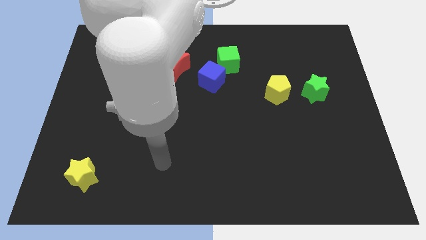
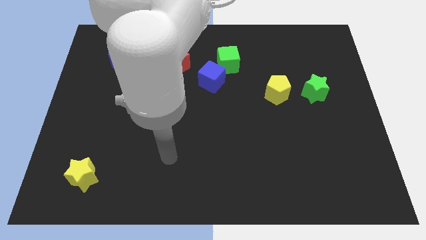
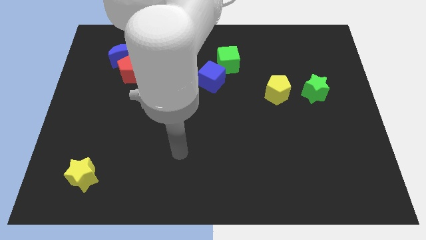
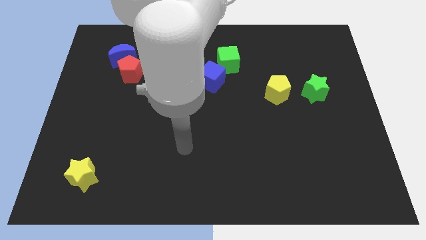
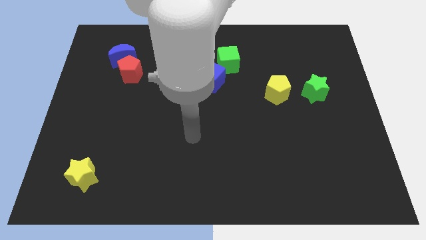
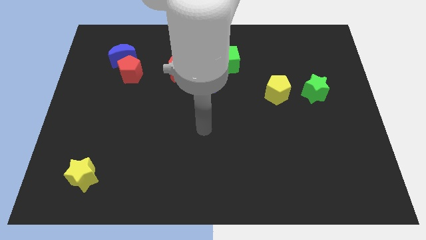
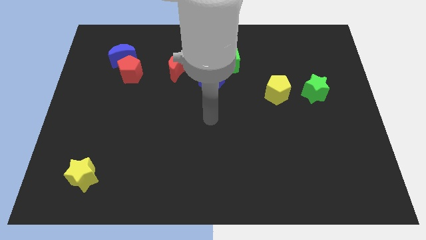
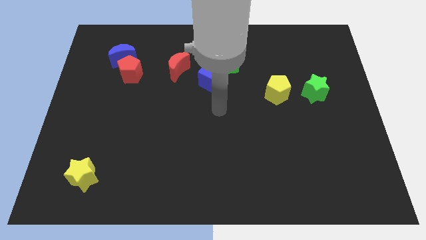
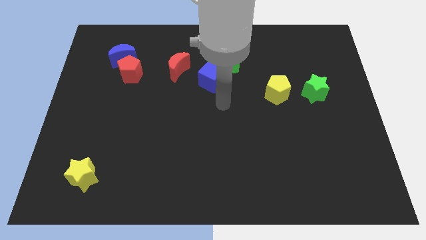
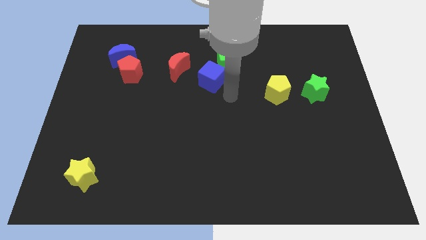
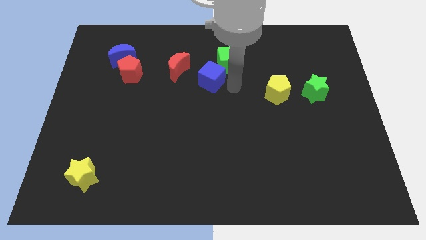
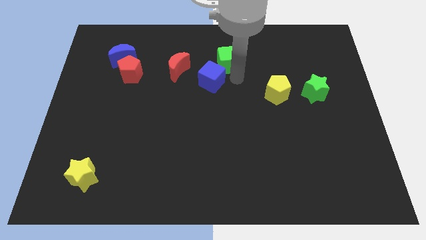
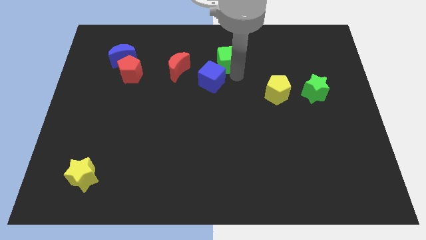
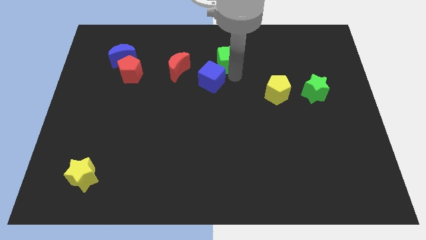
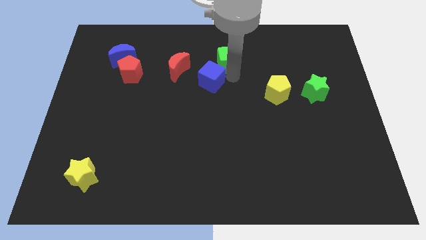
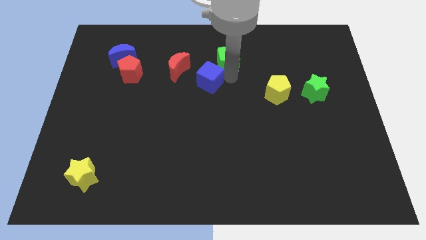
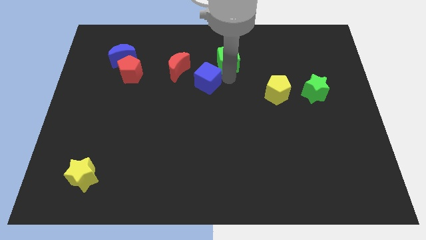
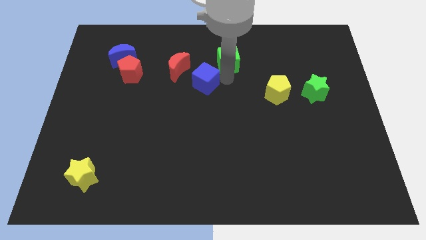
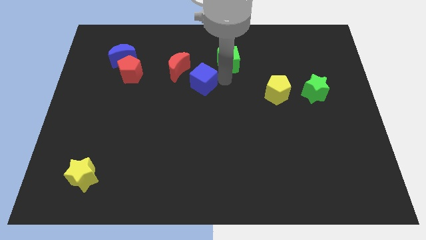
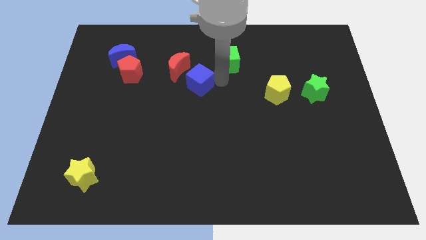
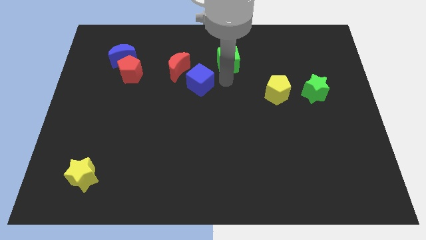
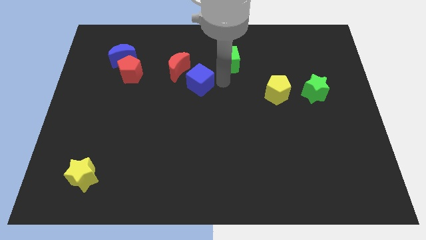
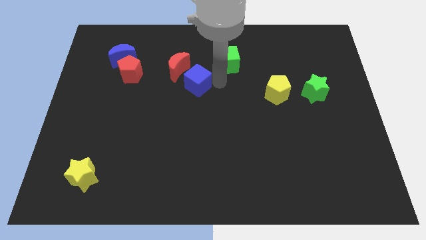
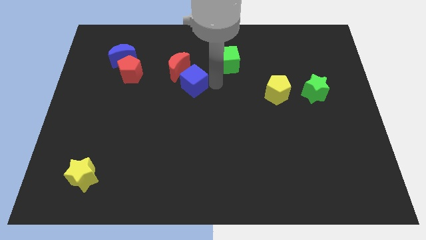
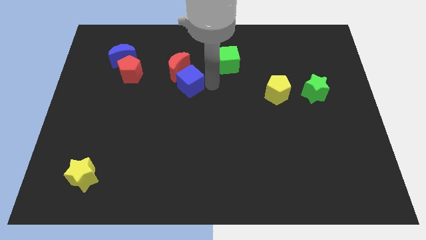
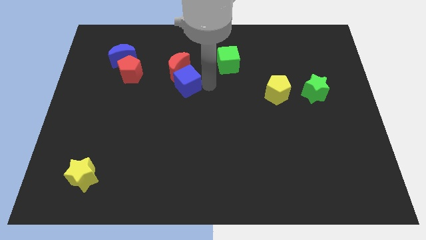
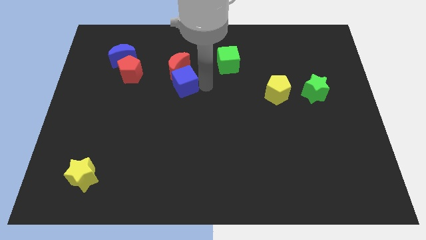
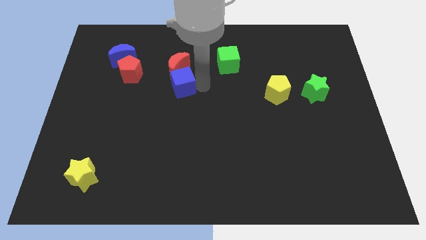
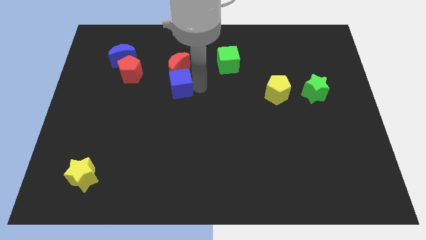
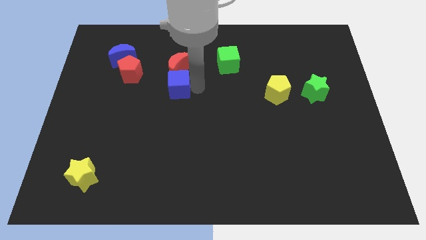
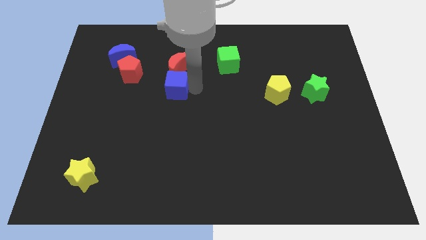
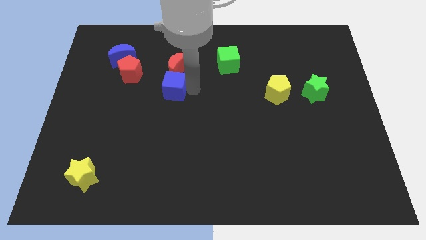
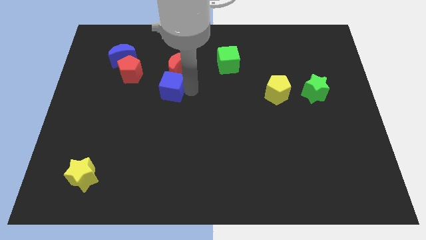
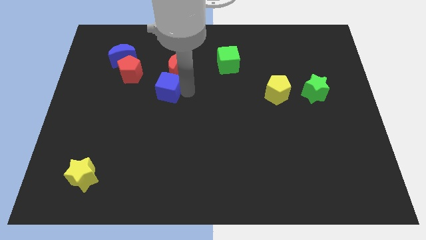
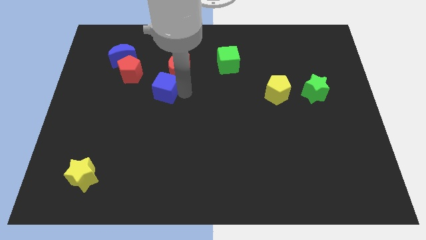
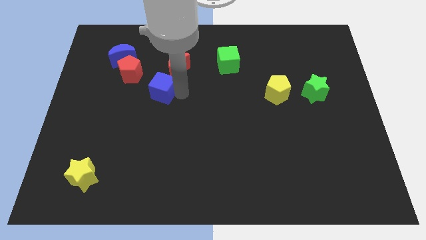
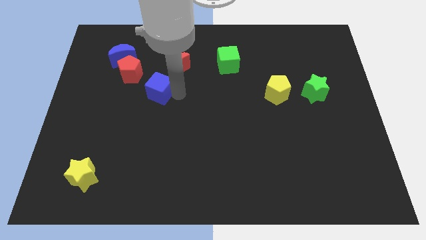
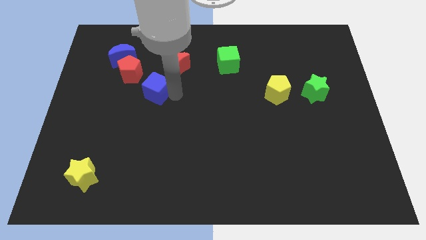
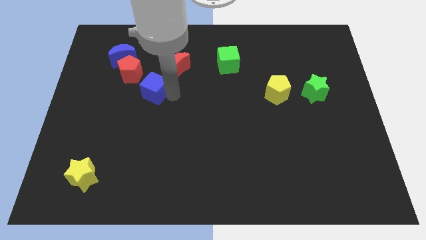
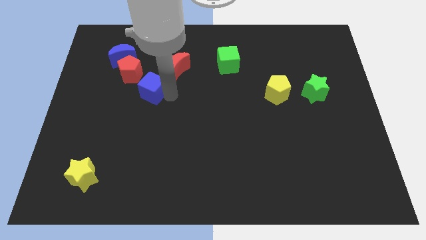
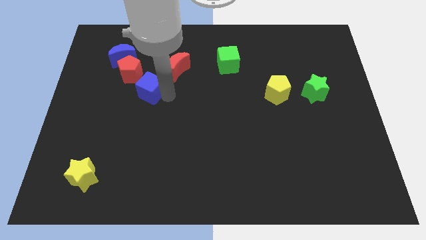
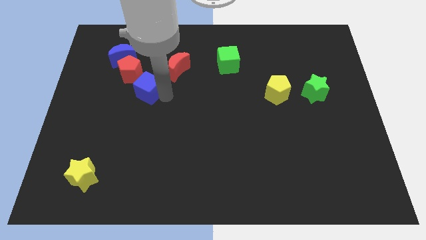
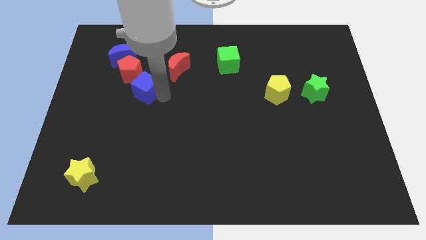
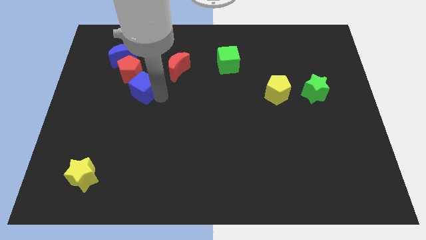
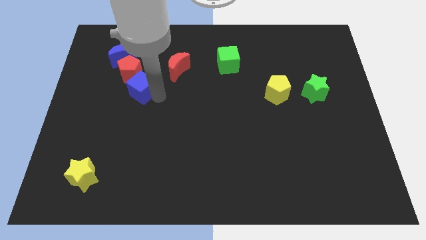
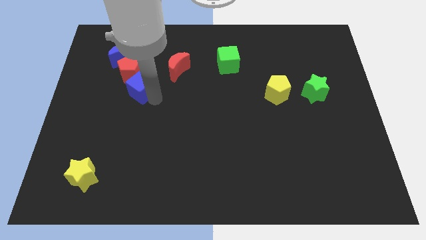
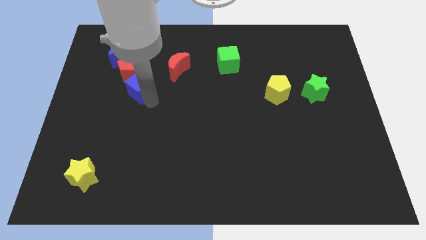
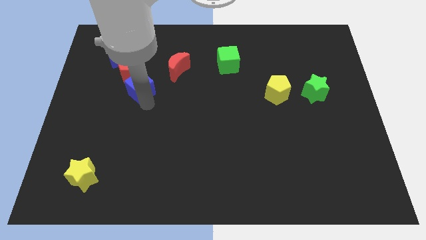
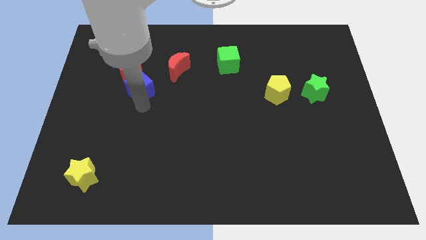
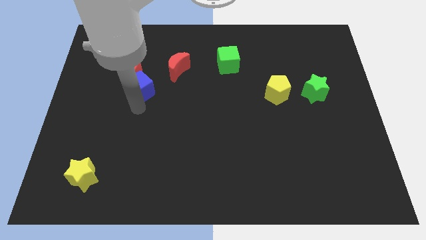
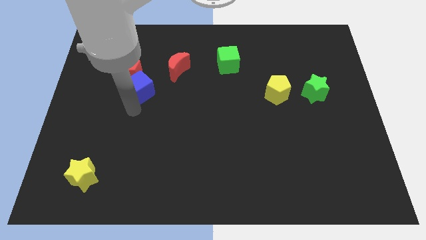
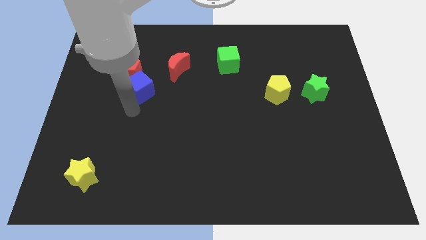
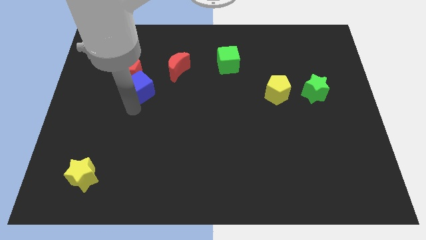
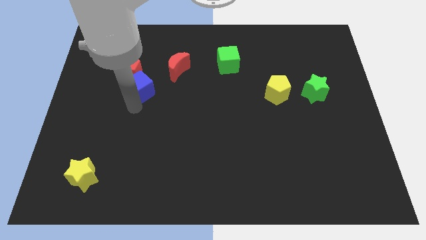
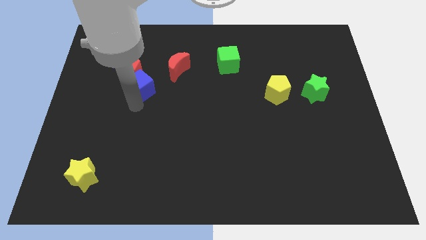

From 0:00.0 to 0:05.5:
push the blue cube close to the red pentagon

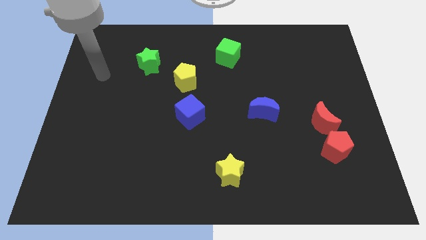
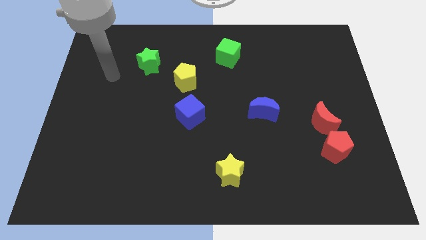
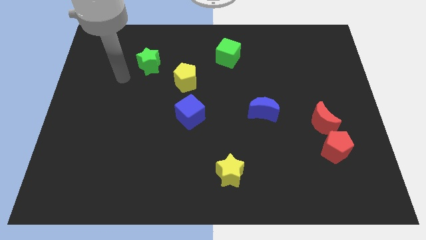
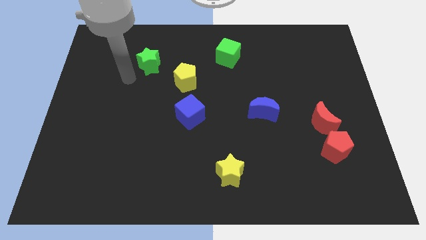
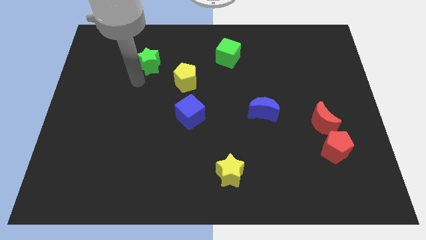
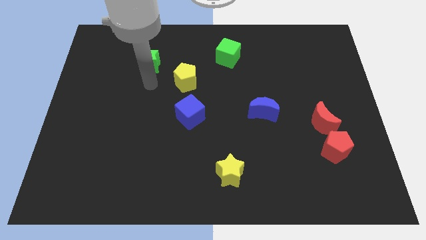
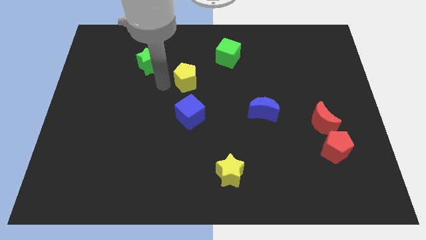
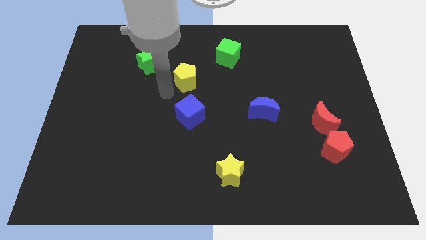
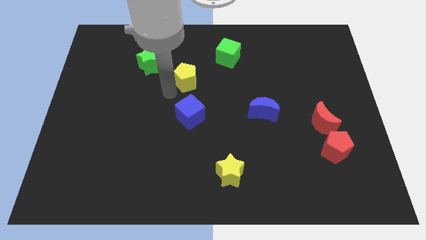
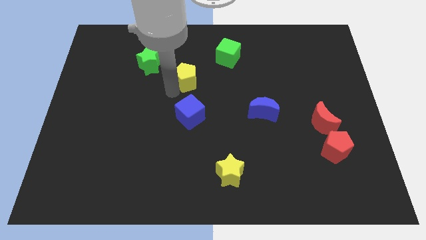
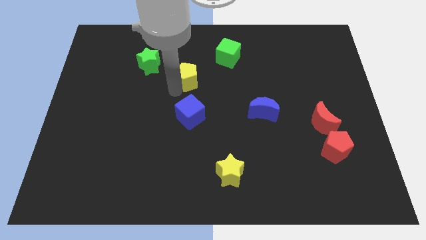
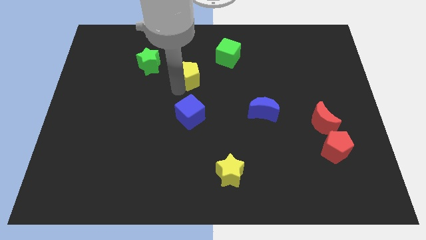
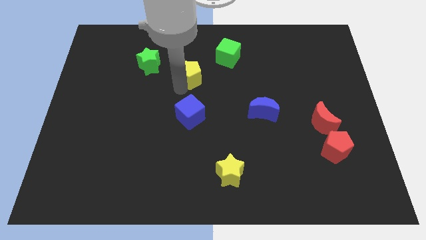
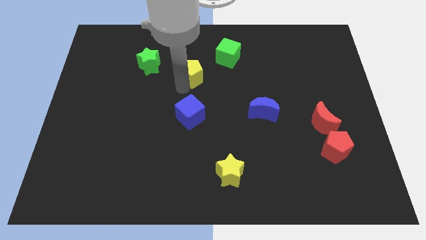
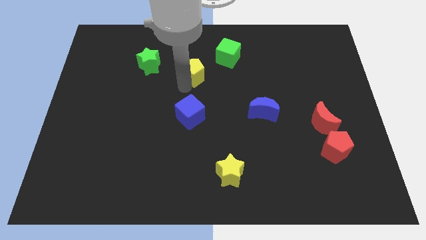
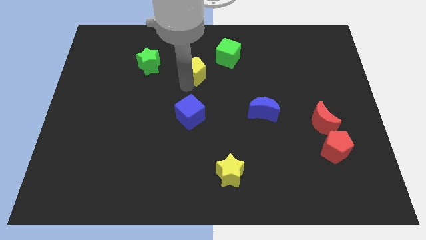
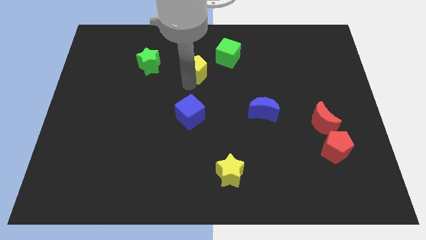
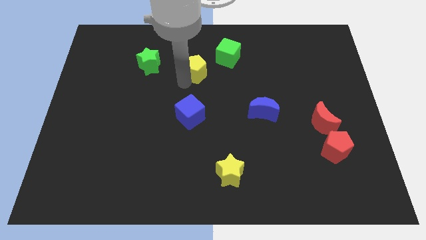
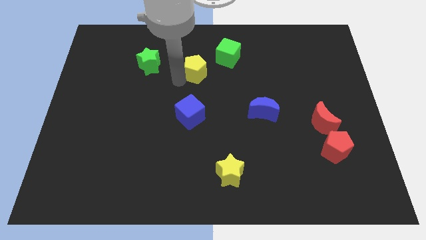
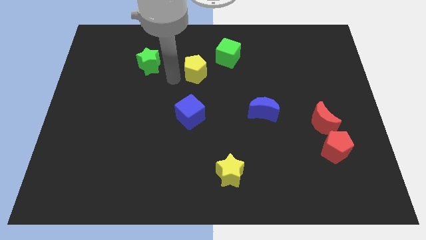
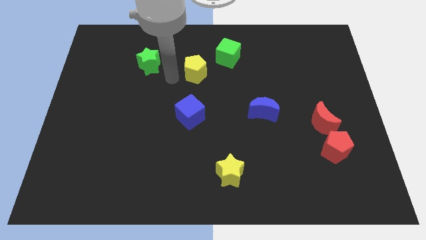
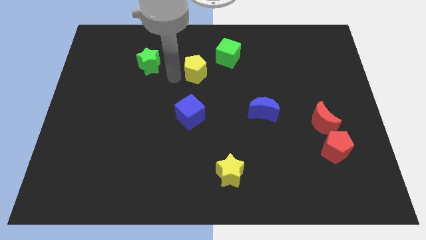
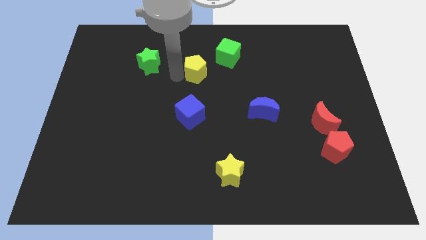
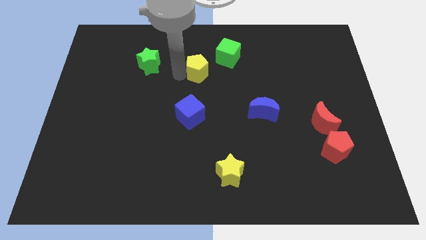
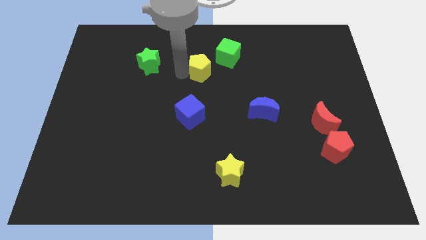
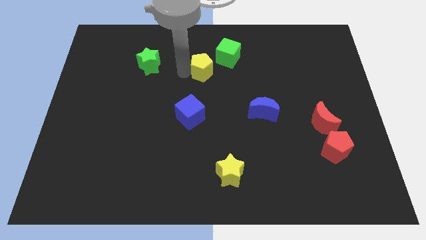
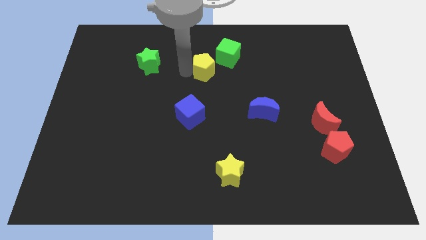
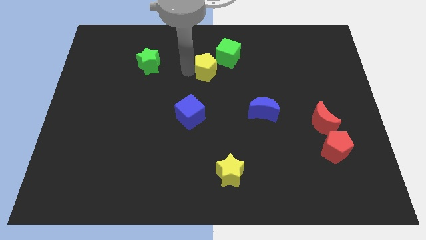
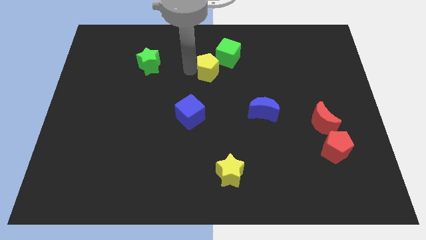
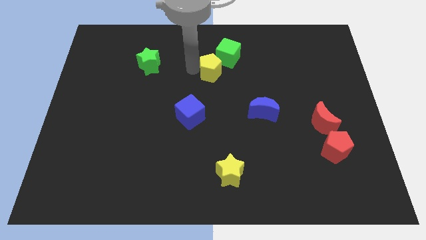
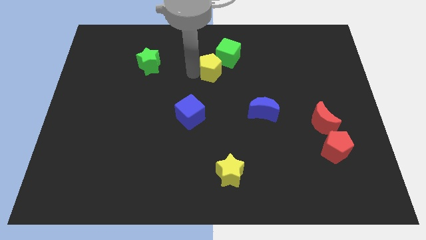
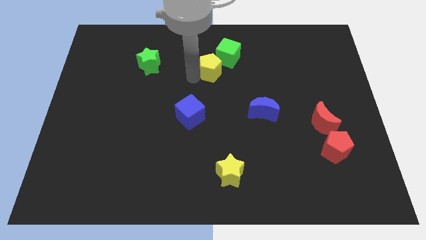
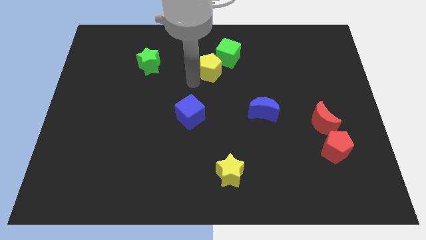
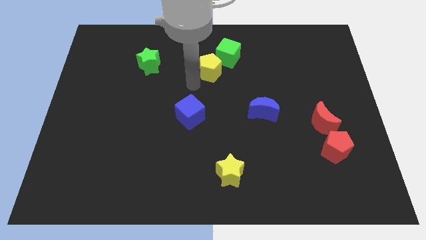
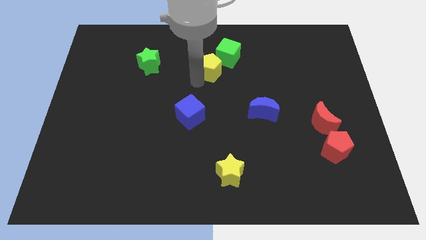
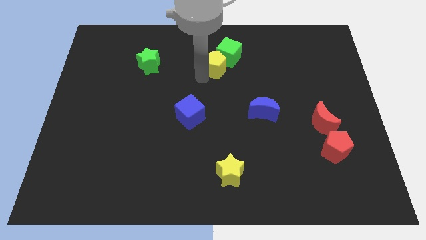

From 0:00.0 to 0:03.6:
move the yellow pentagon towards the green cube
